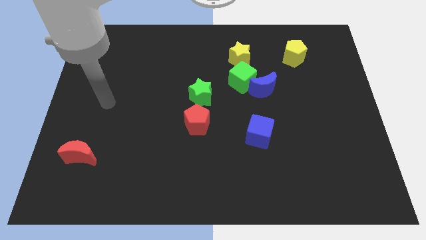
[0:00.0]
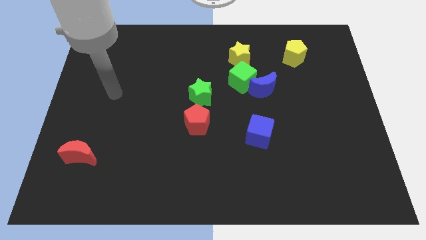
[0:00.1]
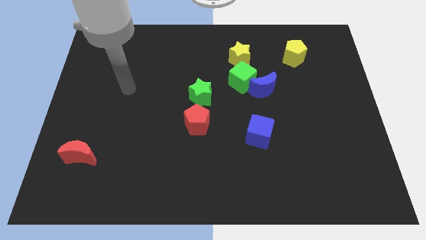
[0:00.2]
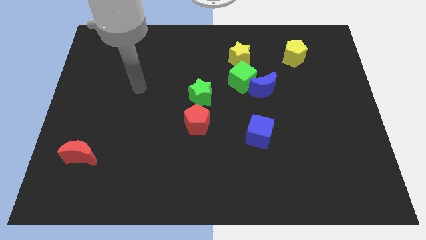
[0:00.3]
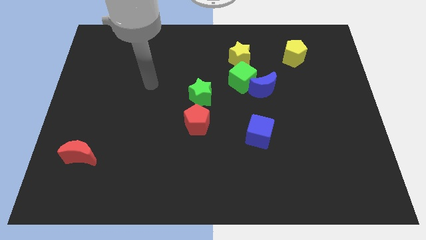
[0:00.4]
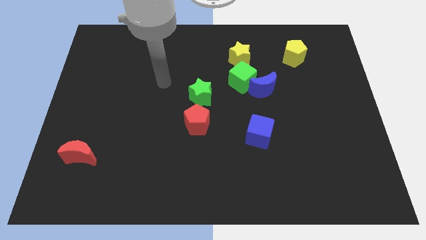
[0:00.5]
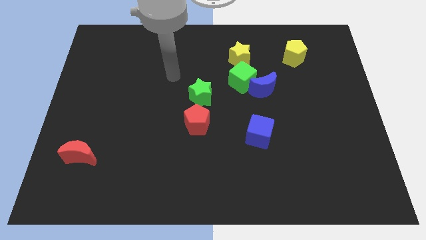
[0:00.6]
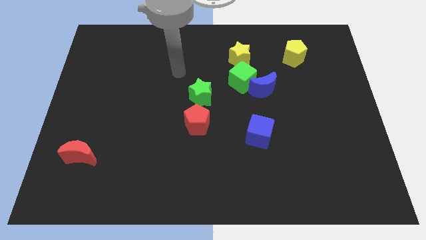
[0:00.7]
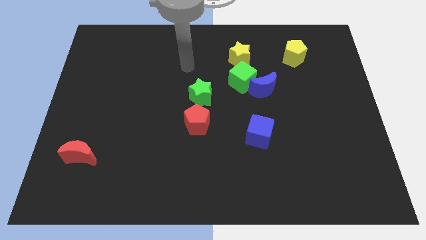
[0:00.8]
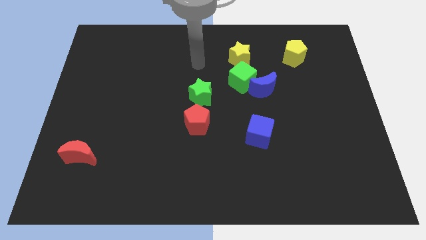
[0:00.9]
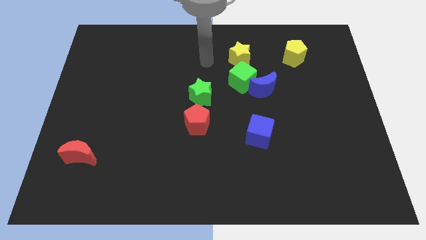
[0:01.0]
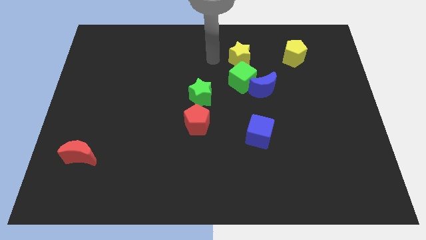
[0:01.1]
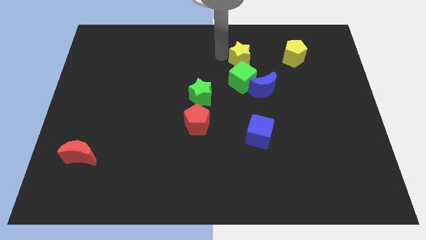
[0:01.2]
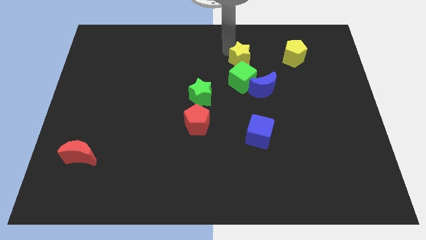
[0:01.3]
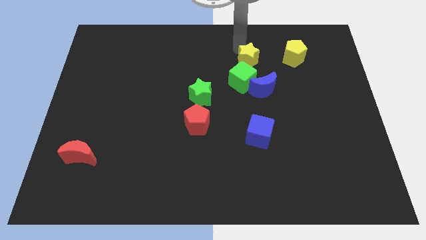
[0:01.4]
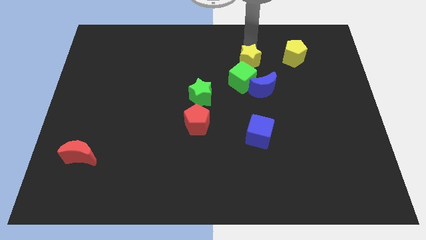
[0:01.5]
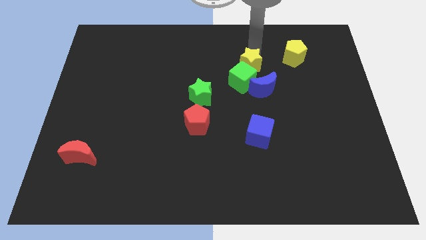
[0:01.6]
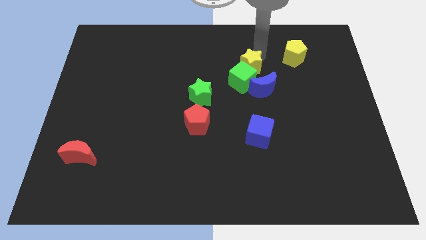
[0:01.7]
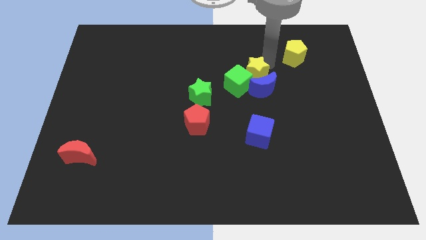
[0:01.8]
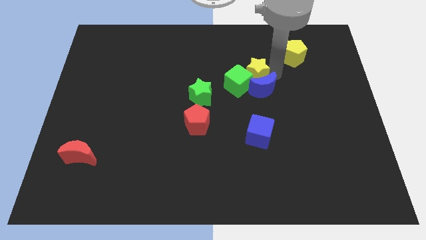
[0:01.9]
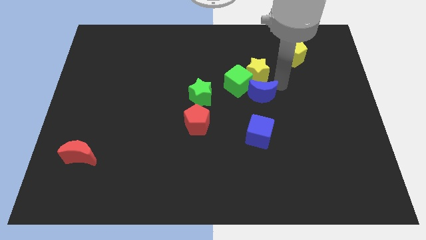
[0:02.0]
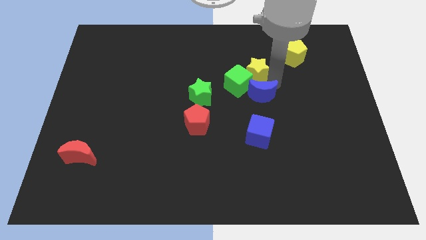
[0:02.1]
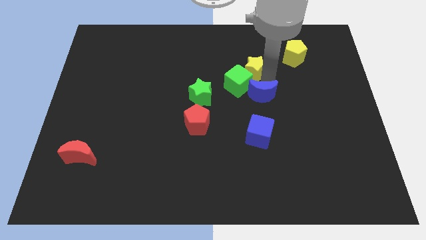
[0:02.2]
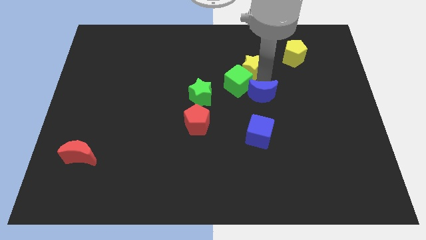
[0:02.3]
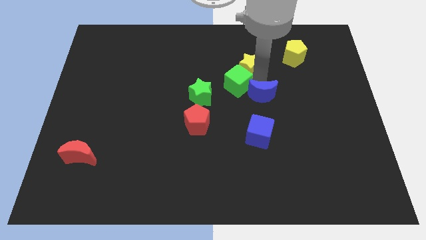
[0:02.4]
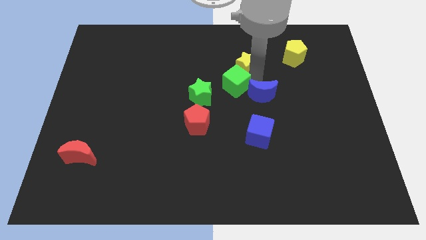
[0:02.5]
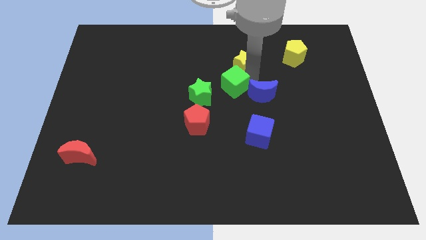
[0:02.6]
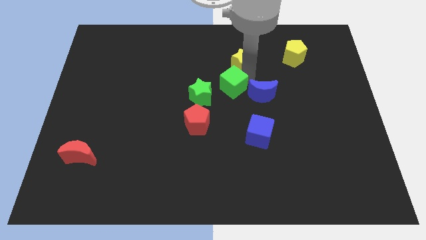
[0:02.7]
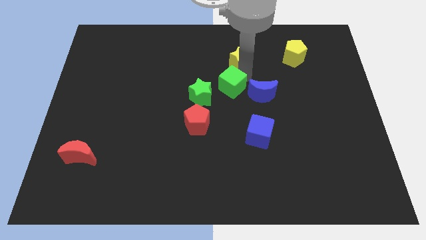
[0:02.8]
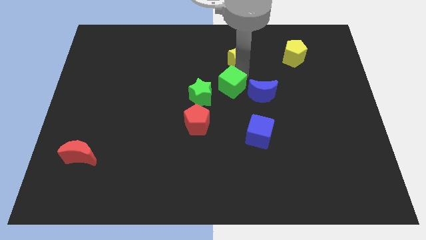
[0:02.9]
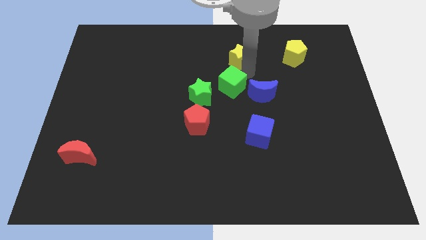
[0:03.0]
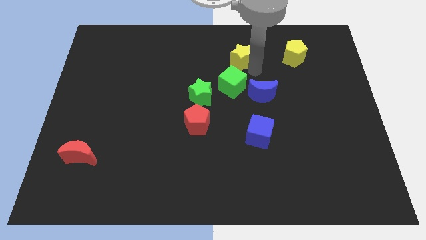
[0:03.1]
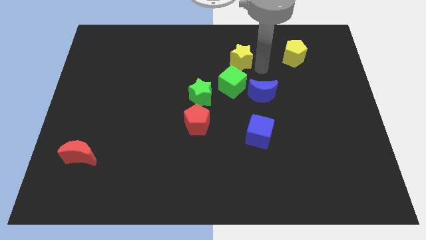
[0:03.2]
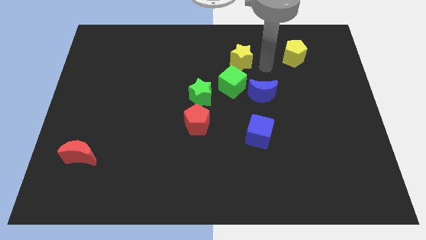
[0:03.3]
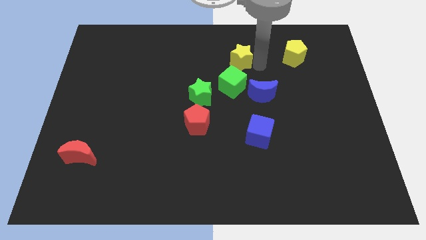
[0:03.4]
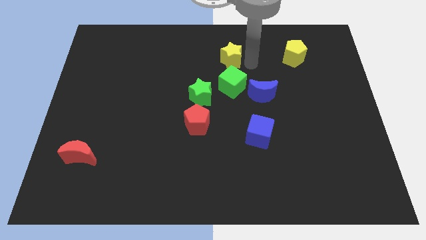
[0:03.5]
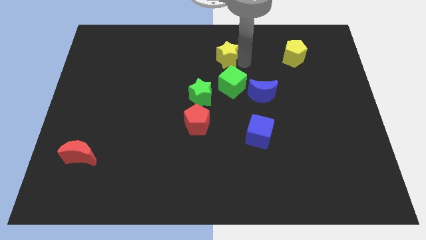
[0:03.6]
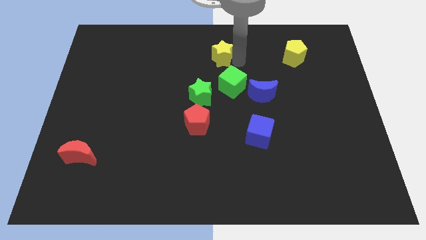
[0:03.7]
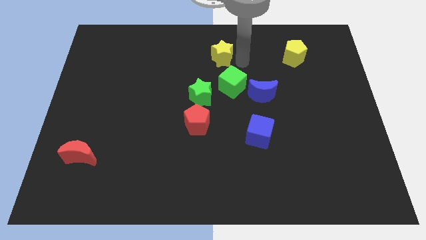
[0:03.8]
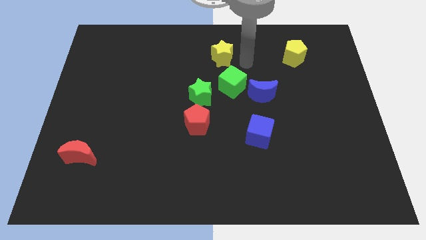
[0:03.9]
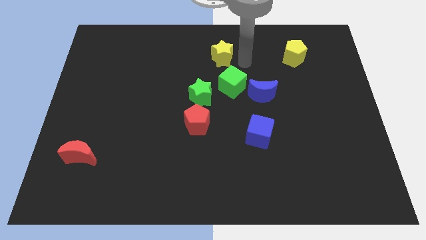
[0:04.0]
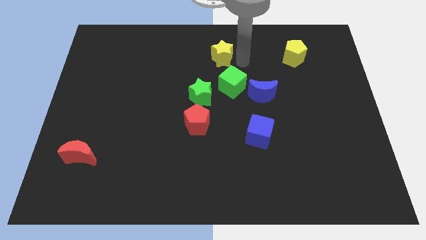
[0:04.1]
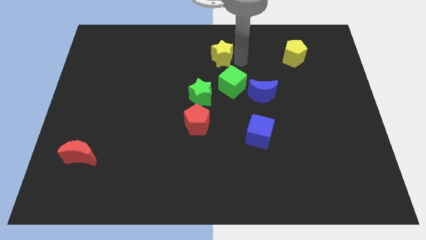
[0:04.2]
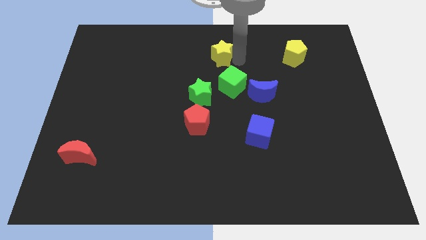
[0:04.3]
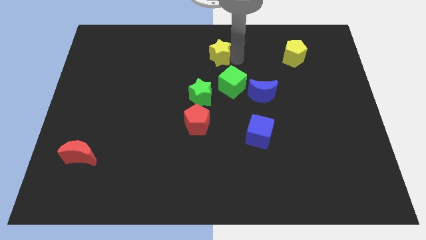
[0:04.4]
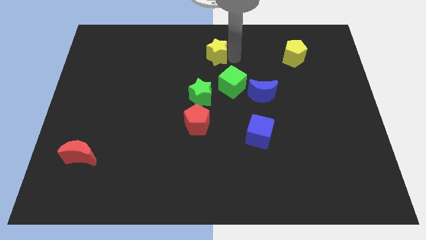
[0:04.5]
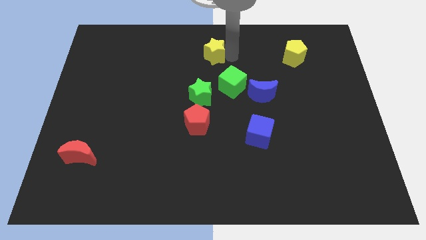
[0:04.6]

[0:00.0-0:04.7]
move the yellow star left slightly

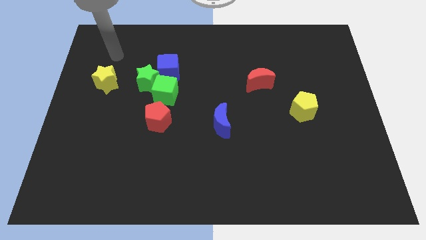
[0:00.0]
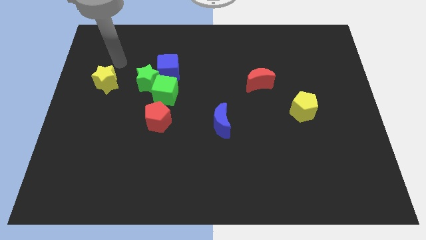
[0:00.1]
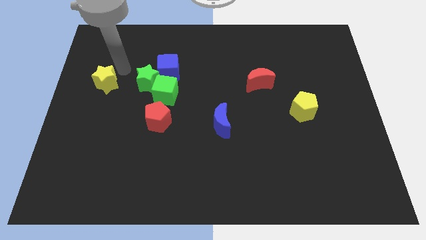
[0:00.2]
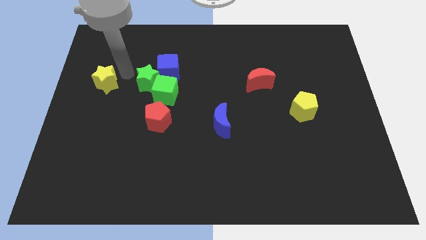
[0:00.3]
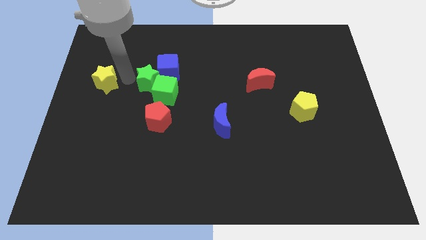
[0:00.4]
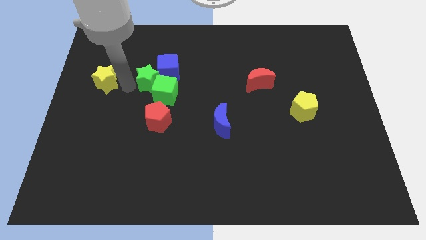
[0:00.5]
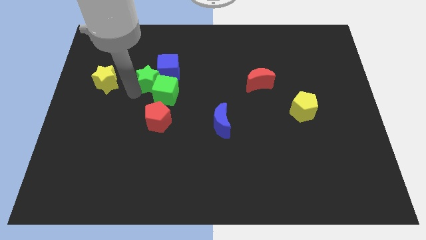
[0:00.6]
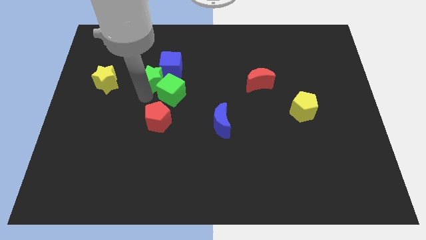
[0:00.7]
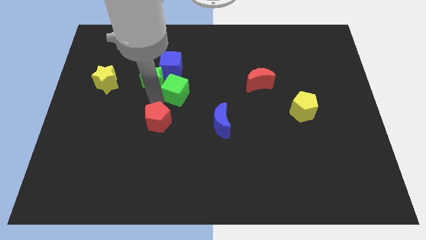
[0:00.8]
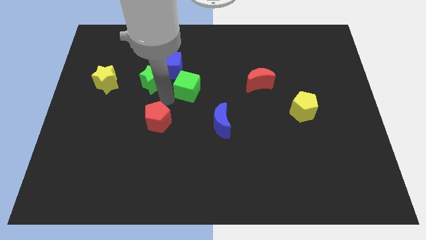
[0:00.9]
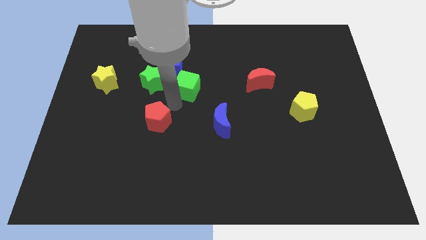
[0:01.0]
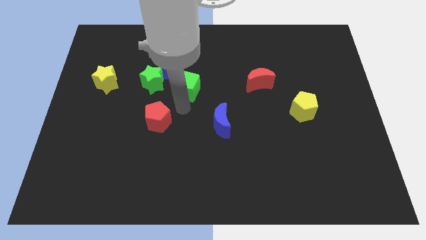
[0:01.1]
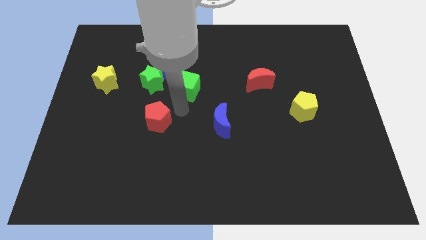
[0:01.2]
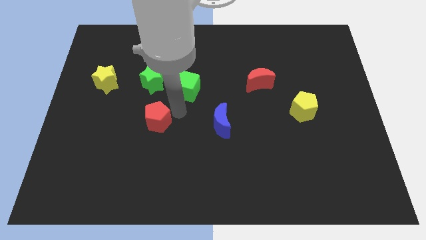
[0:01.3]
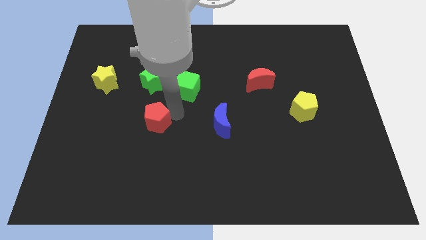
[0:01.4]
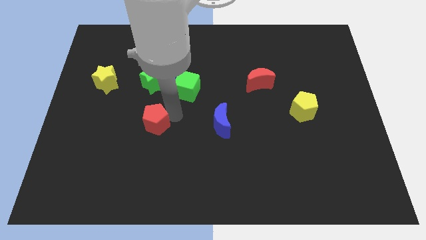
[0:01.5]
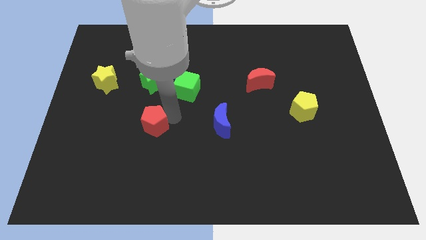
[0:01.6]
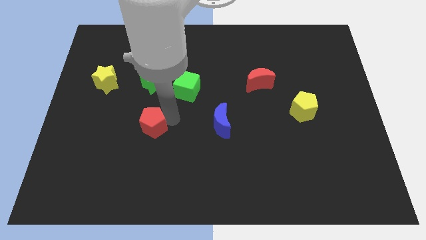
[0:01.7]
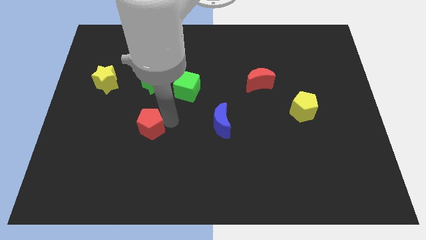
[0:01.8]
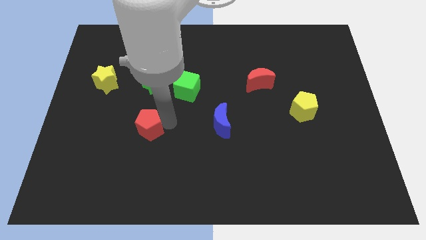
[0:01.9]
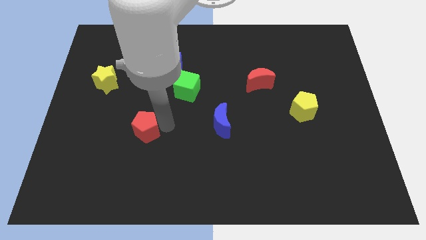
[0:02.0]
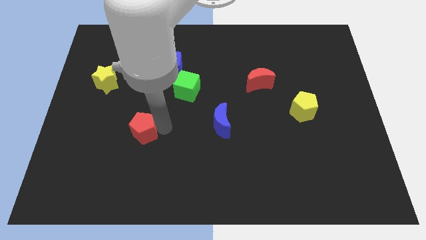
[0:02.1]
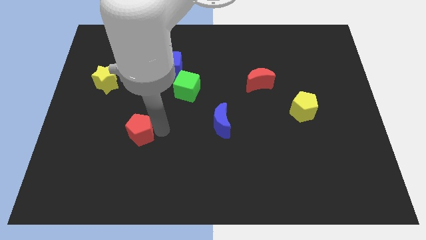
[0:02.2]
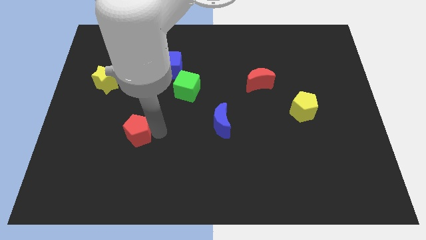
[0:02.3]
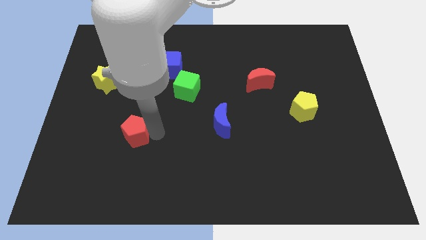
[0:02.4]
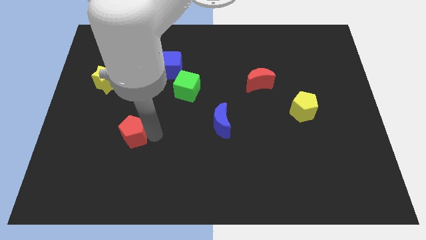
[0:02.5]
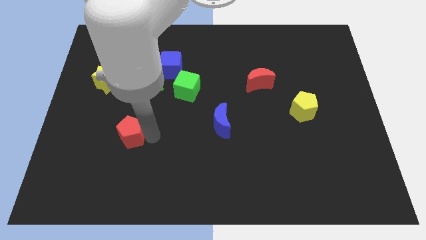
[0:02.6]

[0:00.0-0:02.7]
slide the red pentagon a little bit down and left diagonally

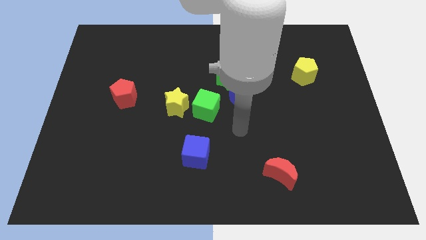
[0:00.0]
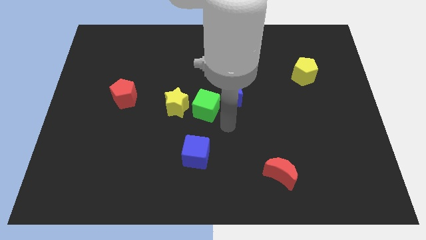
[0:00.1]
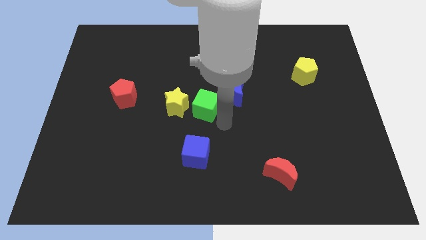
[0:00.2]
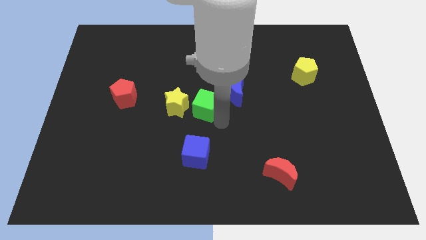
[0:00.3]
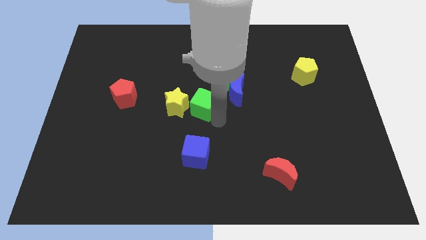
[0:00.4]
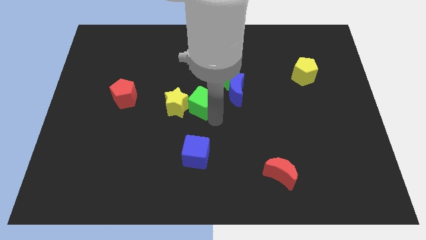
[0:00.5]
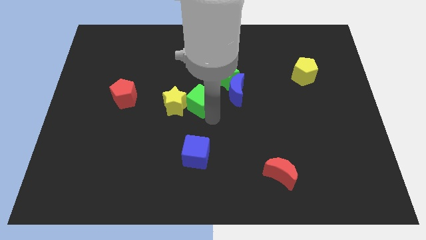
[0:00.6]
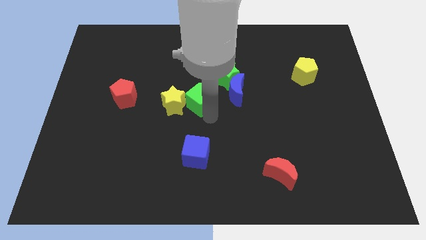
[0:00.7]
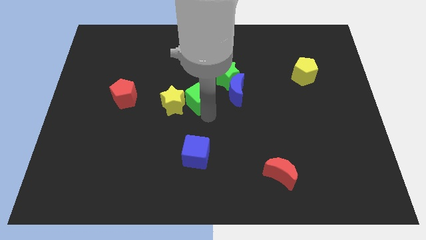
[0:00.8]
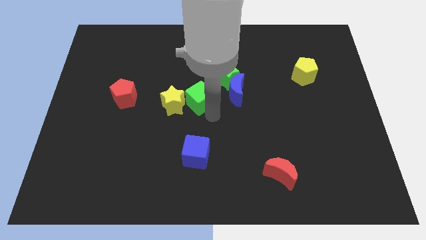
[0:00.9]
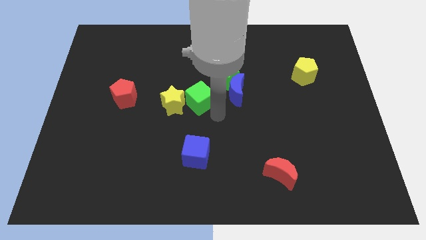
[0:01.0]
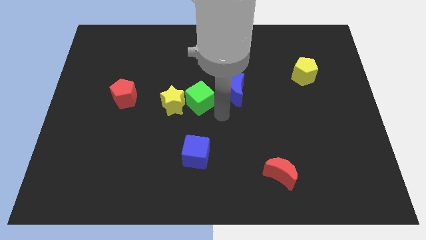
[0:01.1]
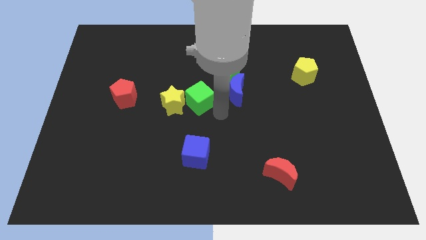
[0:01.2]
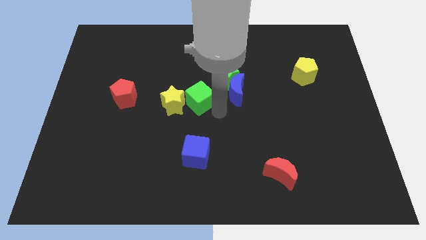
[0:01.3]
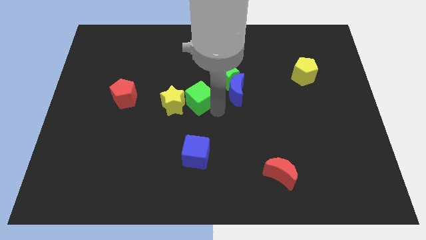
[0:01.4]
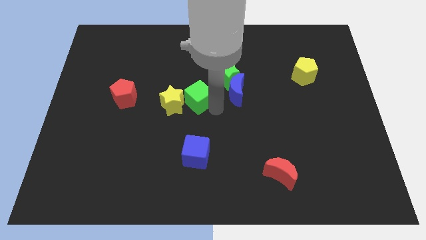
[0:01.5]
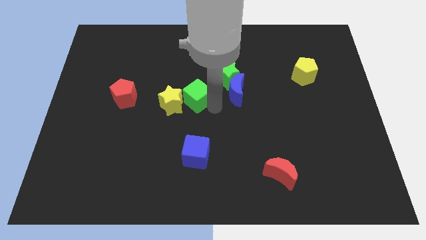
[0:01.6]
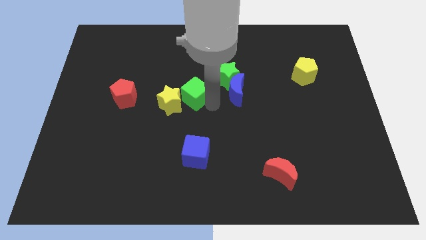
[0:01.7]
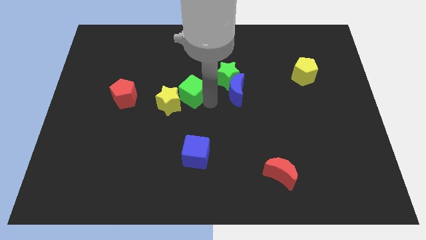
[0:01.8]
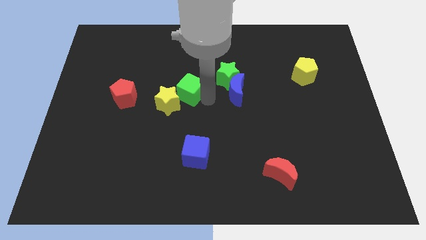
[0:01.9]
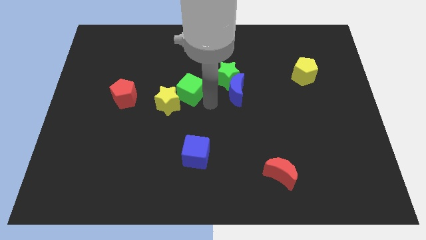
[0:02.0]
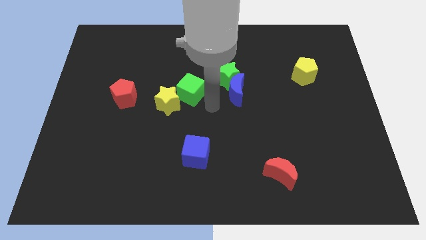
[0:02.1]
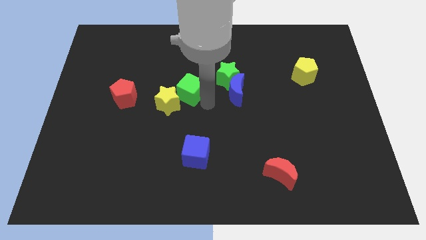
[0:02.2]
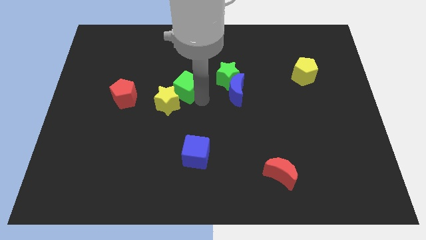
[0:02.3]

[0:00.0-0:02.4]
slightly move the green cube up and left
